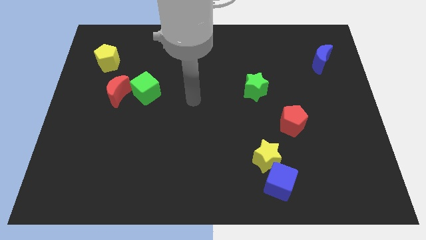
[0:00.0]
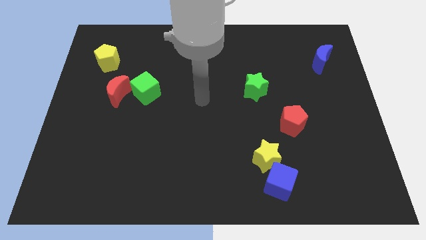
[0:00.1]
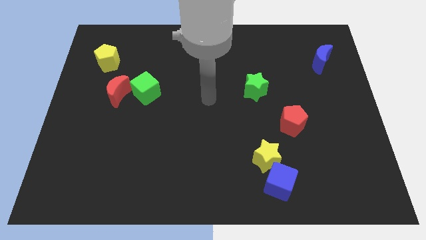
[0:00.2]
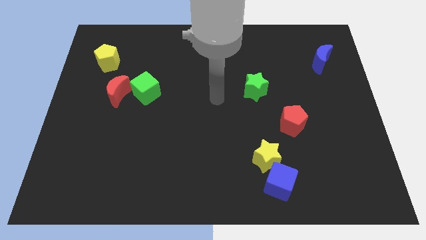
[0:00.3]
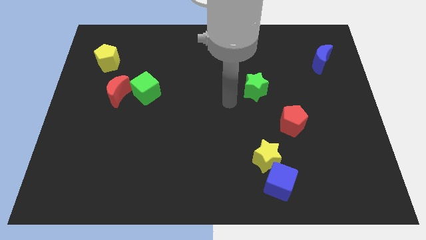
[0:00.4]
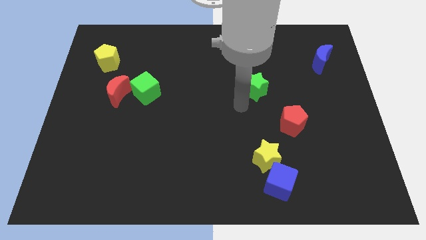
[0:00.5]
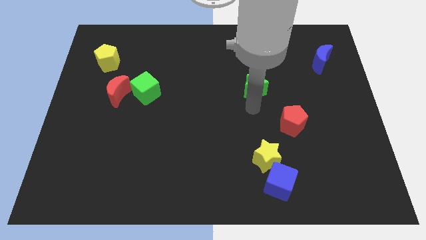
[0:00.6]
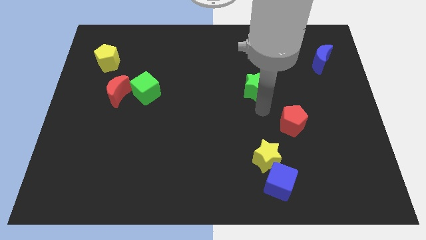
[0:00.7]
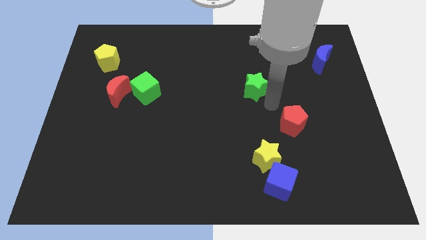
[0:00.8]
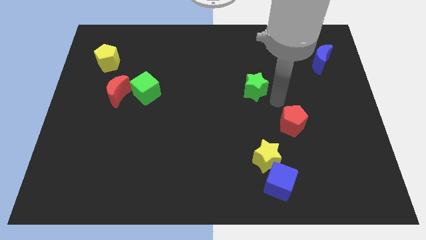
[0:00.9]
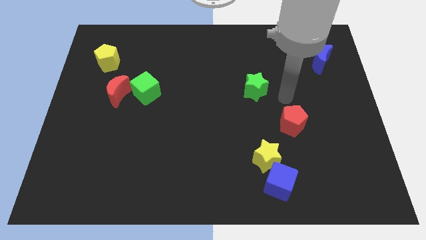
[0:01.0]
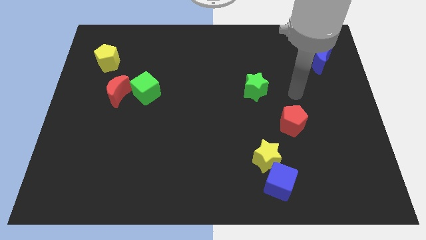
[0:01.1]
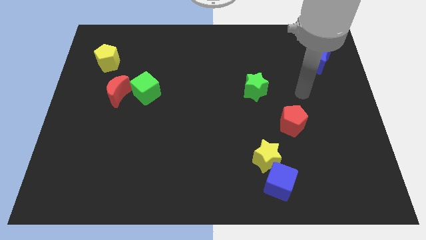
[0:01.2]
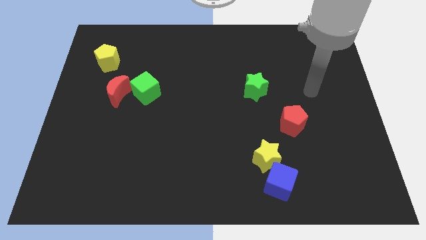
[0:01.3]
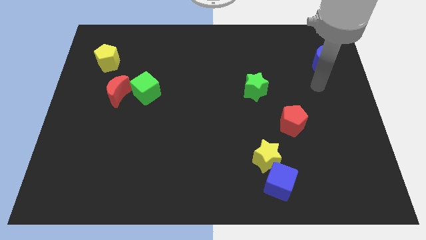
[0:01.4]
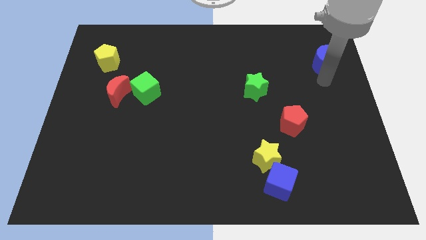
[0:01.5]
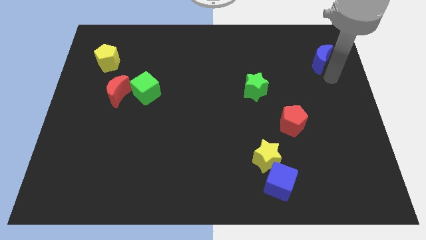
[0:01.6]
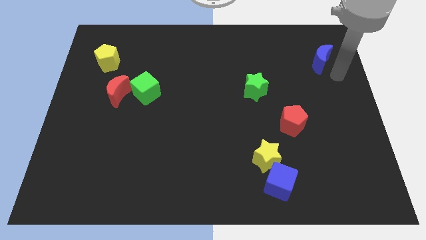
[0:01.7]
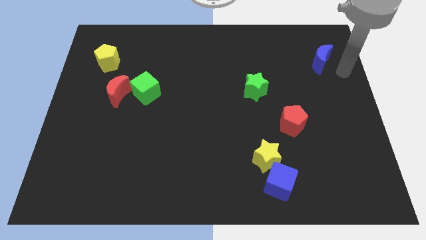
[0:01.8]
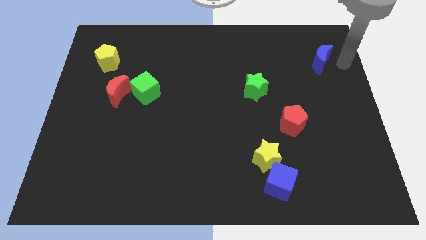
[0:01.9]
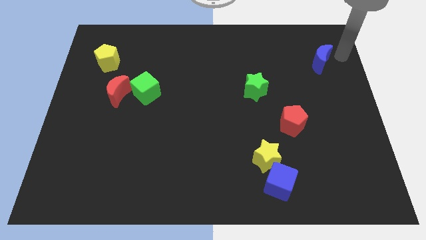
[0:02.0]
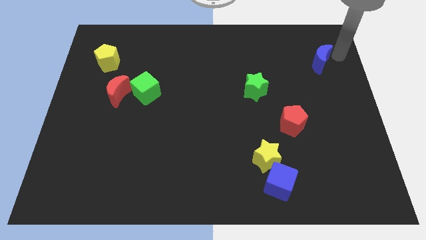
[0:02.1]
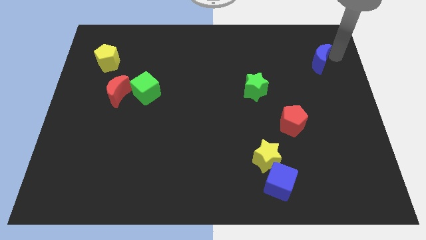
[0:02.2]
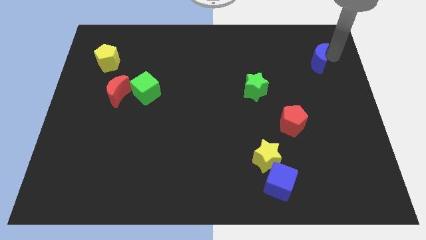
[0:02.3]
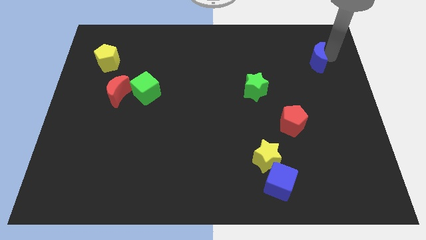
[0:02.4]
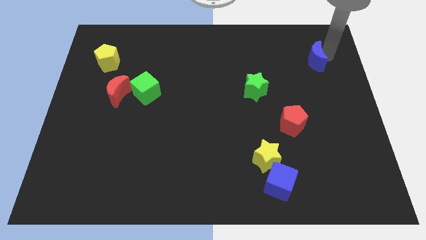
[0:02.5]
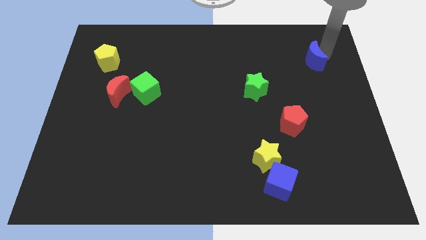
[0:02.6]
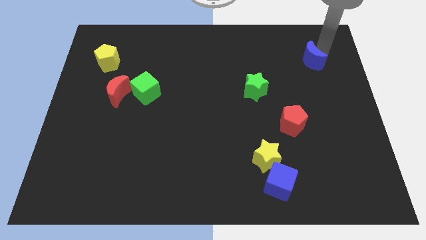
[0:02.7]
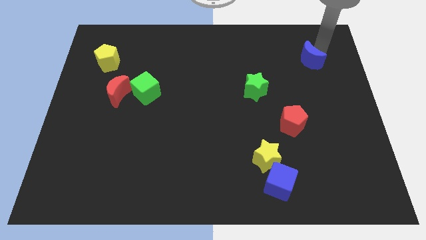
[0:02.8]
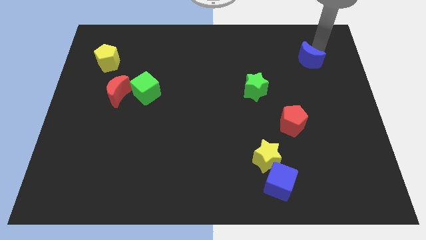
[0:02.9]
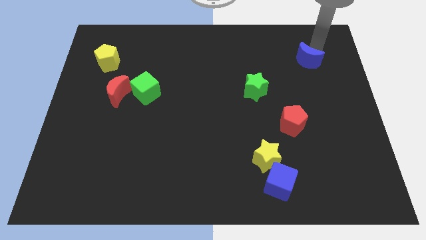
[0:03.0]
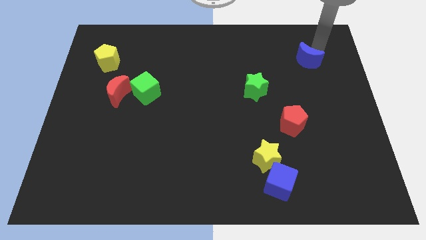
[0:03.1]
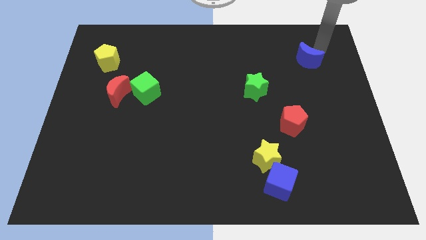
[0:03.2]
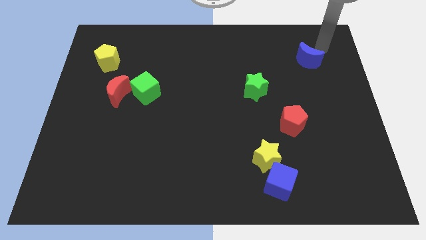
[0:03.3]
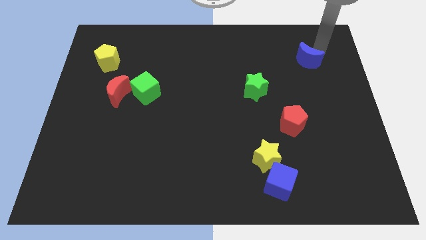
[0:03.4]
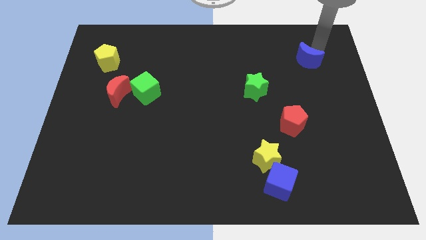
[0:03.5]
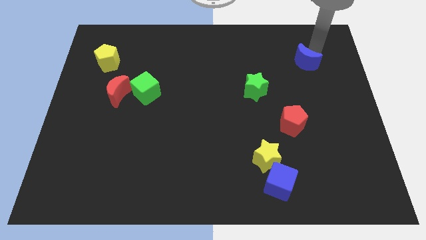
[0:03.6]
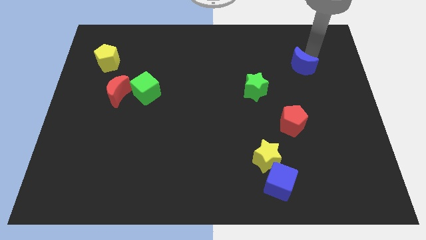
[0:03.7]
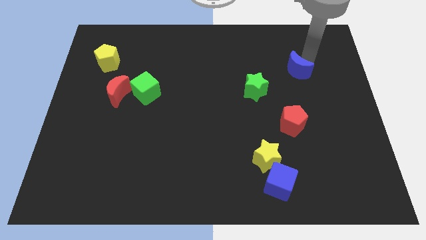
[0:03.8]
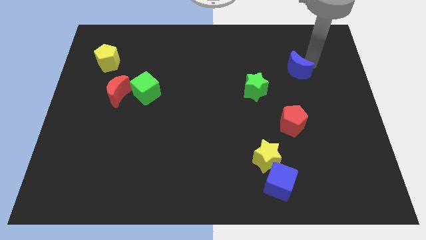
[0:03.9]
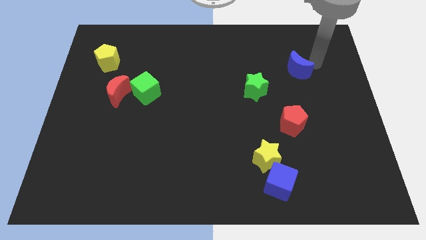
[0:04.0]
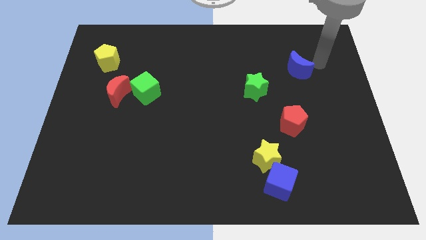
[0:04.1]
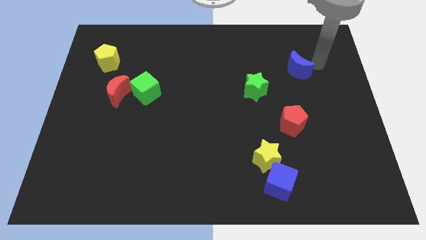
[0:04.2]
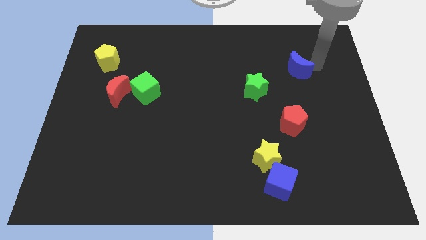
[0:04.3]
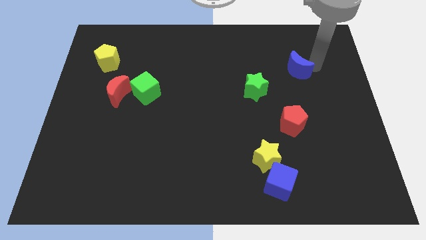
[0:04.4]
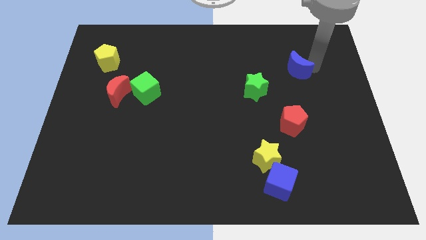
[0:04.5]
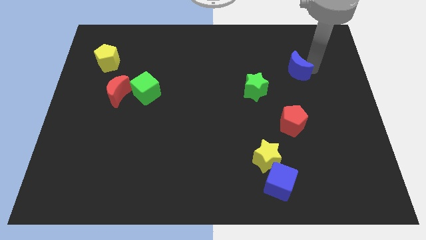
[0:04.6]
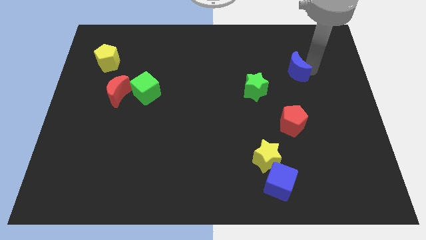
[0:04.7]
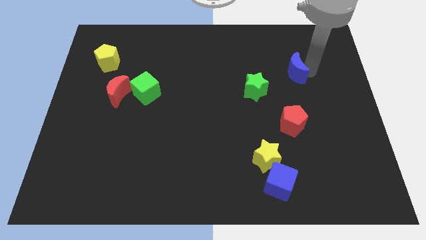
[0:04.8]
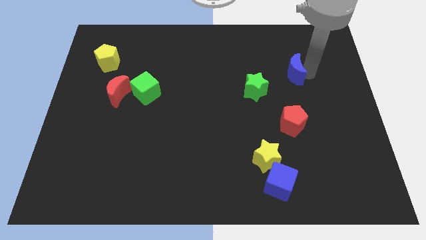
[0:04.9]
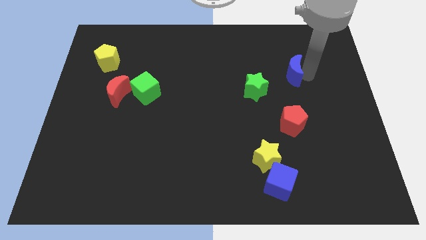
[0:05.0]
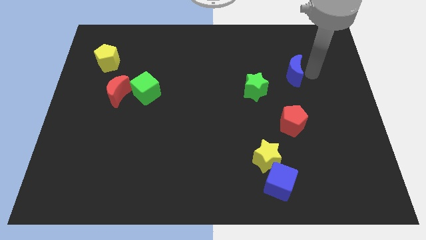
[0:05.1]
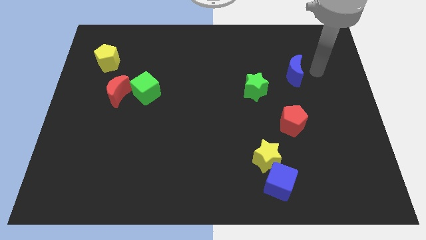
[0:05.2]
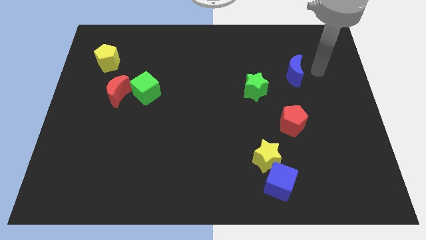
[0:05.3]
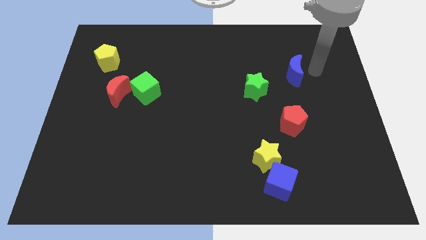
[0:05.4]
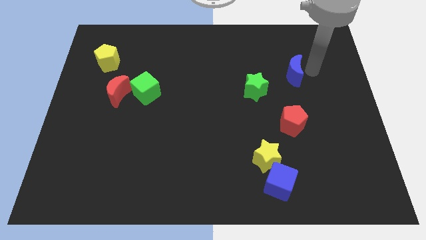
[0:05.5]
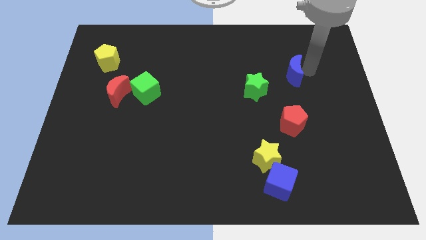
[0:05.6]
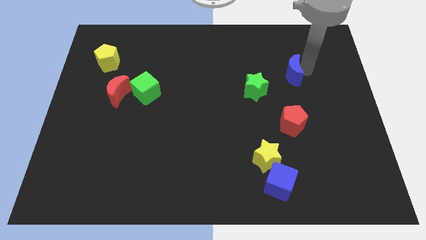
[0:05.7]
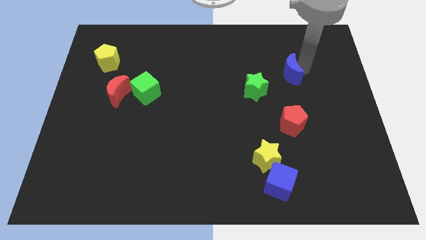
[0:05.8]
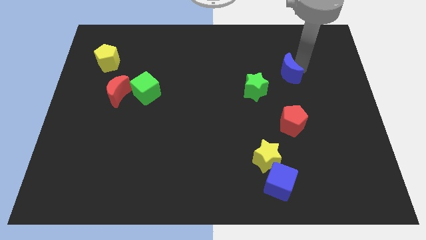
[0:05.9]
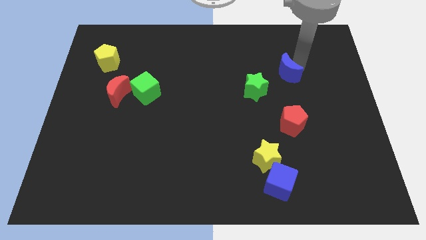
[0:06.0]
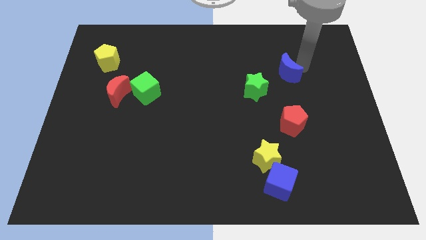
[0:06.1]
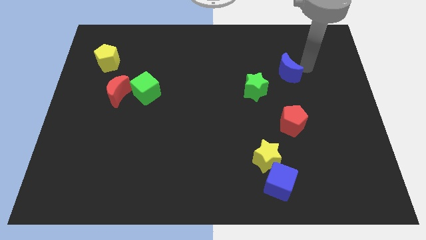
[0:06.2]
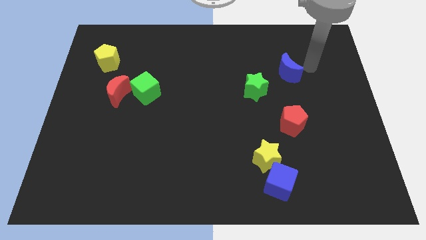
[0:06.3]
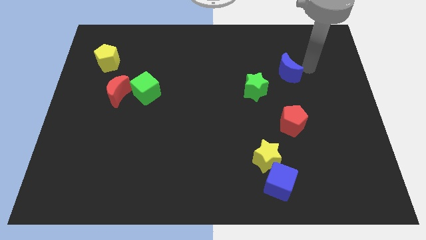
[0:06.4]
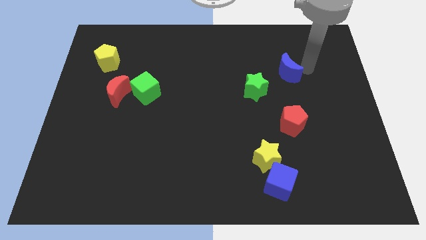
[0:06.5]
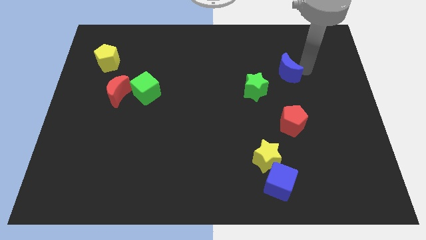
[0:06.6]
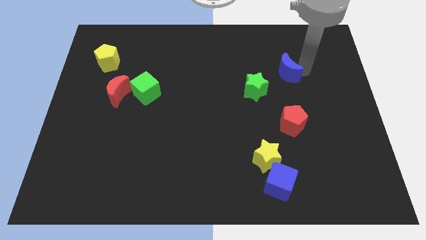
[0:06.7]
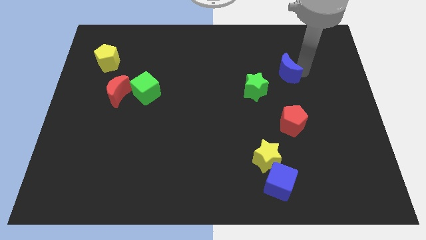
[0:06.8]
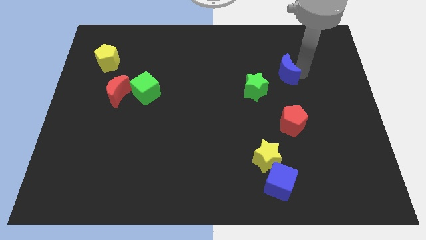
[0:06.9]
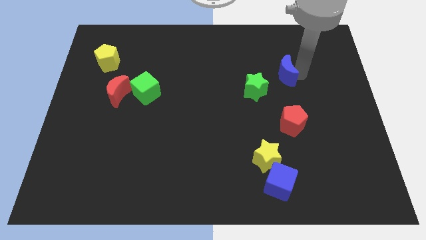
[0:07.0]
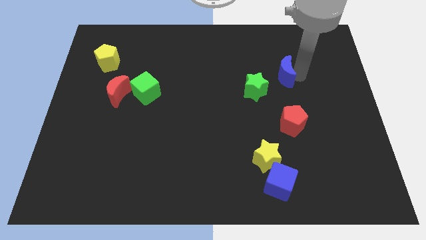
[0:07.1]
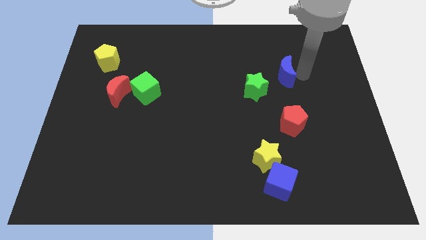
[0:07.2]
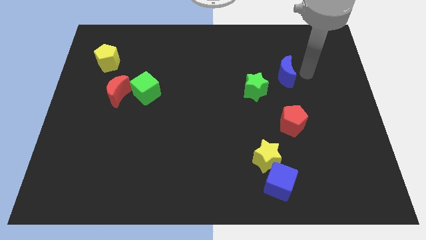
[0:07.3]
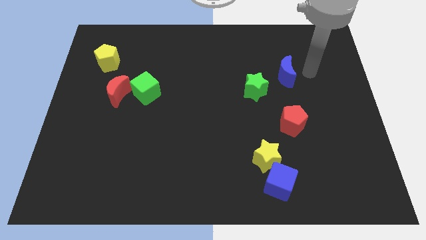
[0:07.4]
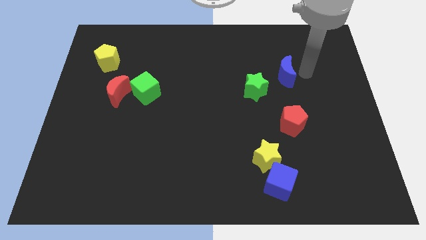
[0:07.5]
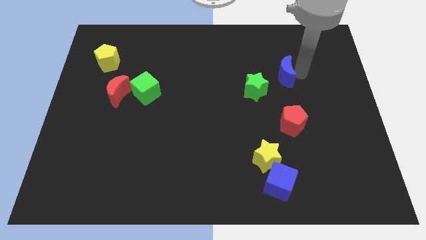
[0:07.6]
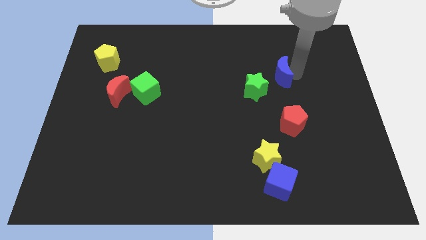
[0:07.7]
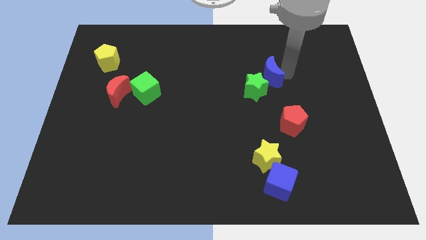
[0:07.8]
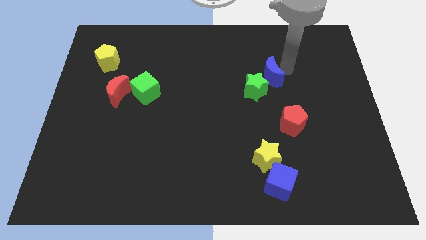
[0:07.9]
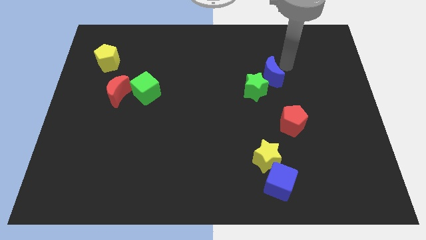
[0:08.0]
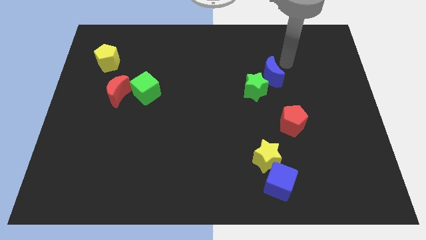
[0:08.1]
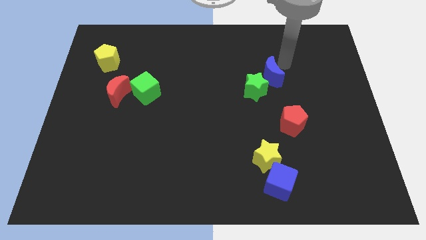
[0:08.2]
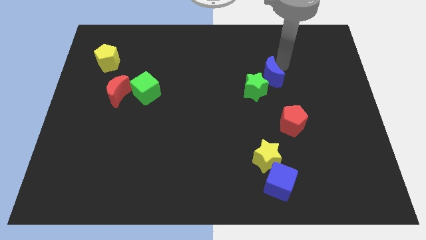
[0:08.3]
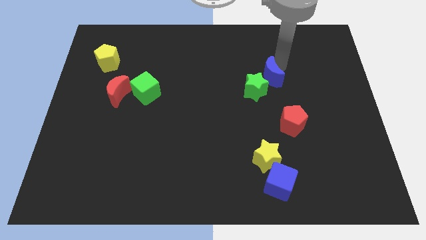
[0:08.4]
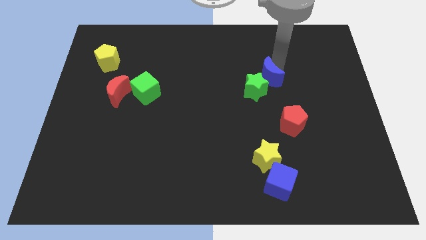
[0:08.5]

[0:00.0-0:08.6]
move the blue moon next to the green star
